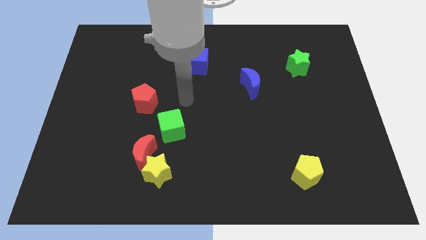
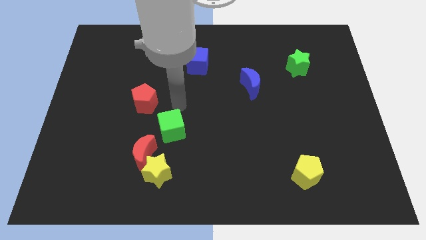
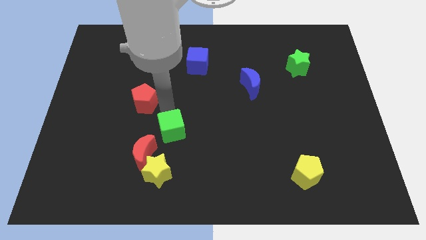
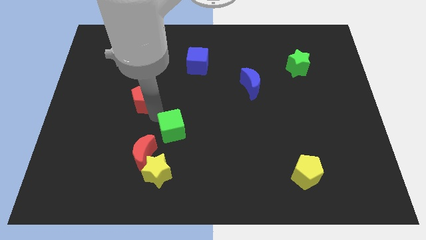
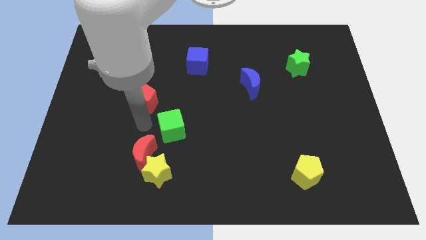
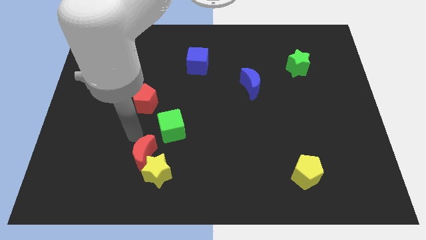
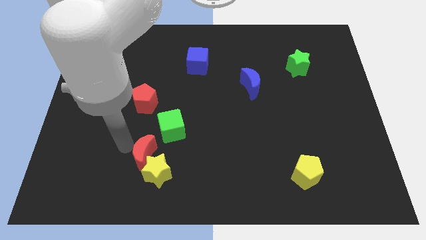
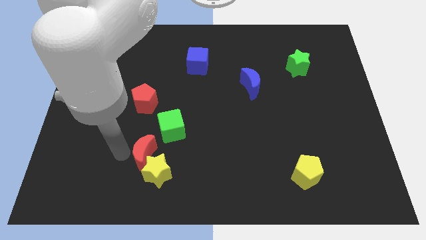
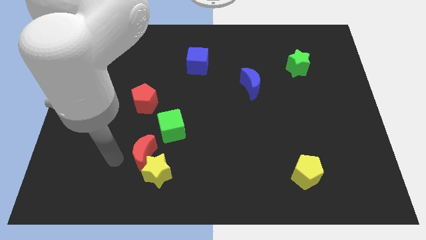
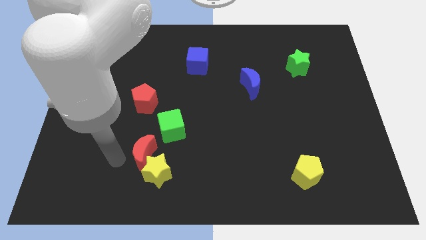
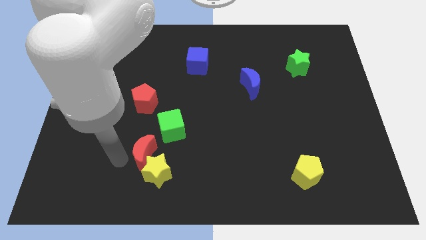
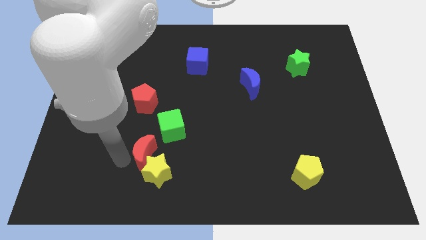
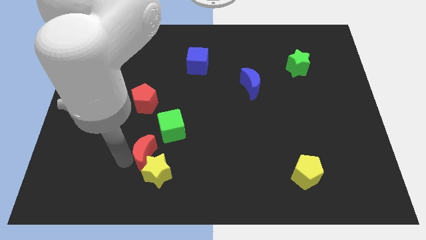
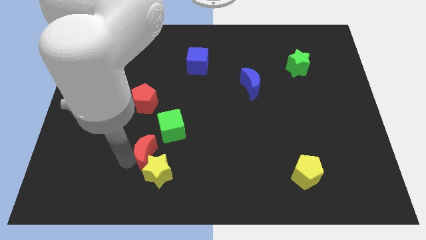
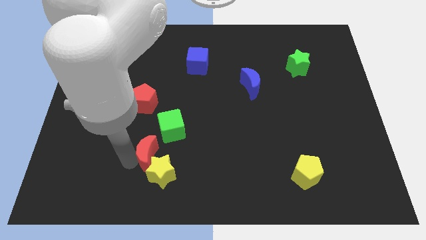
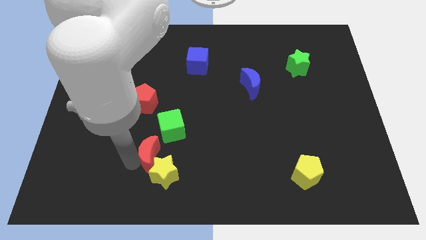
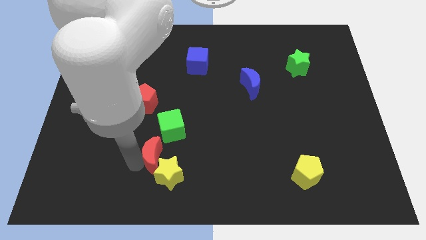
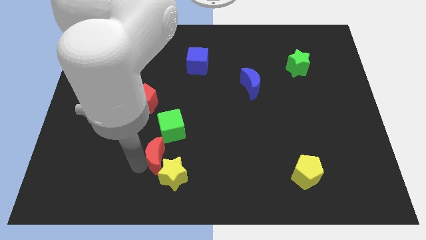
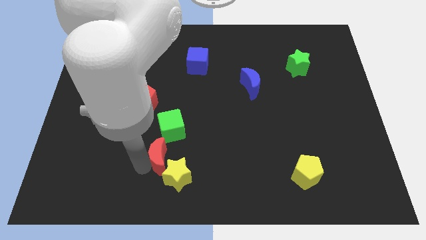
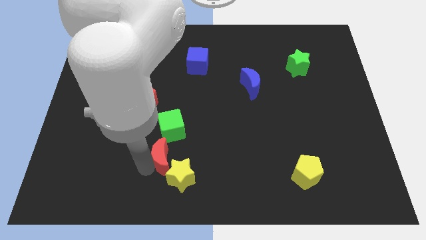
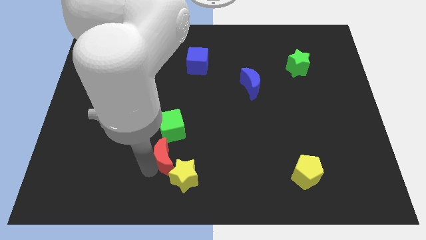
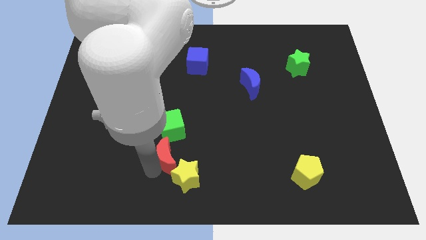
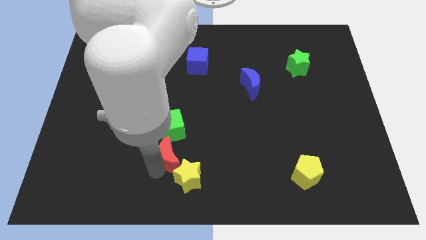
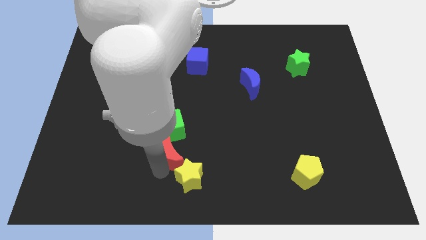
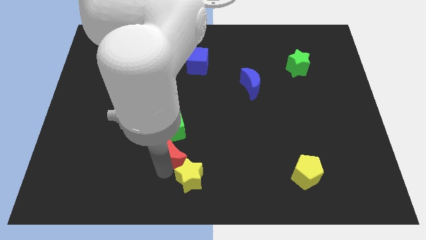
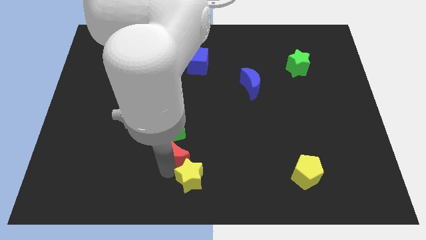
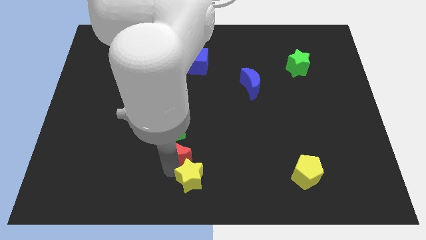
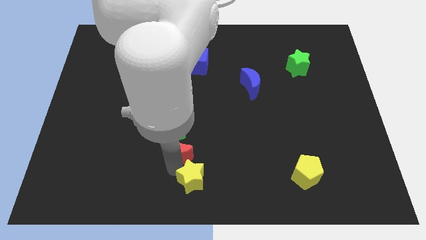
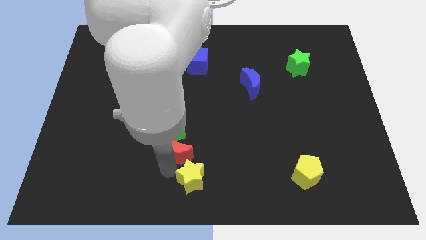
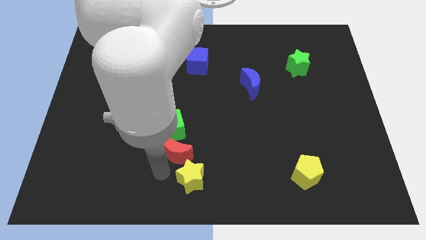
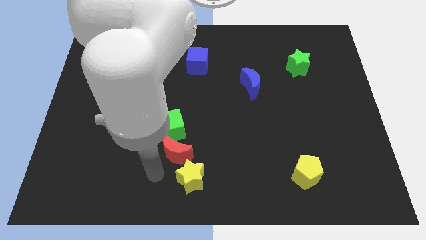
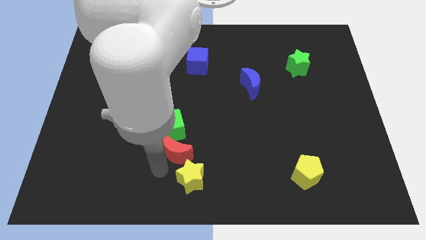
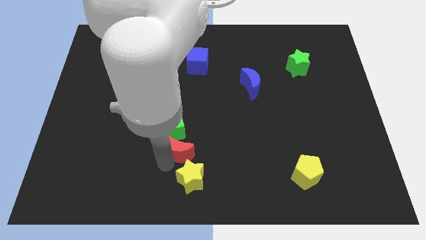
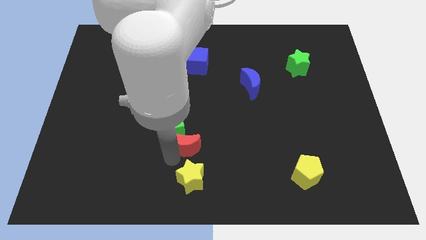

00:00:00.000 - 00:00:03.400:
slide the red moon up and right diagonally somewhat

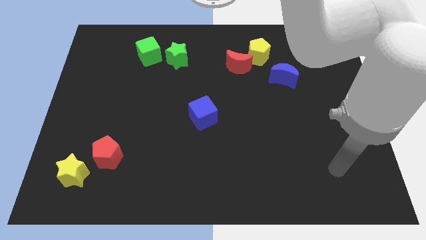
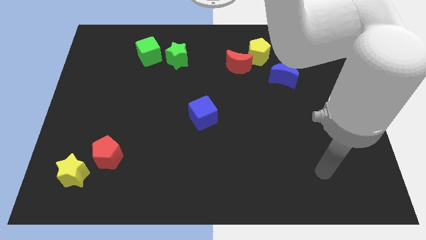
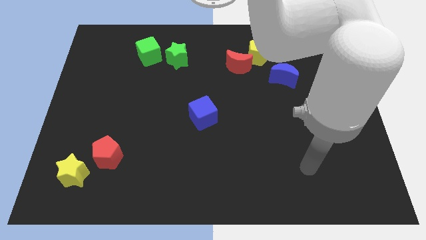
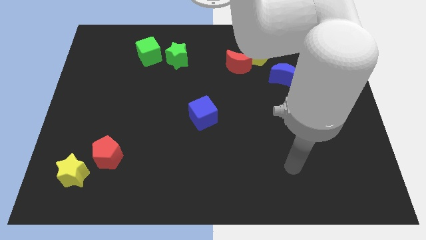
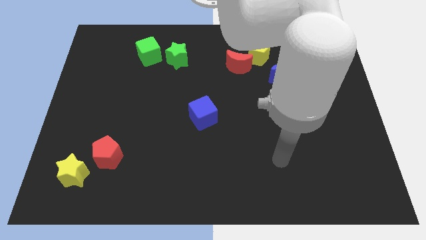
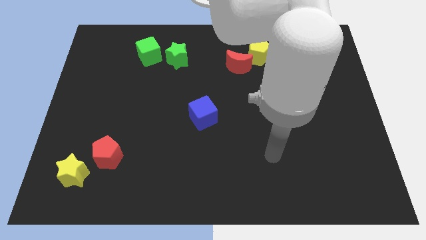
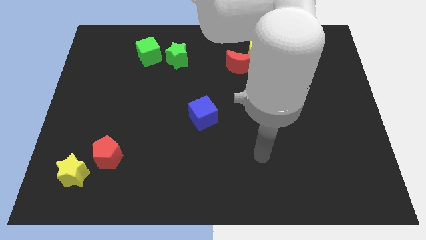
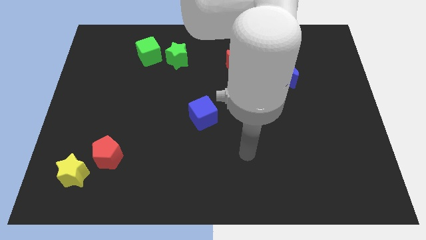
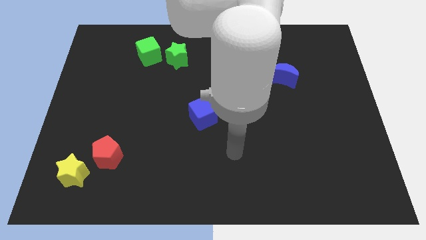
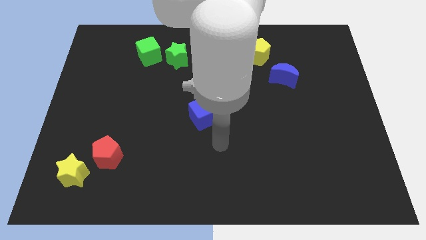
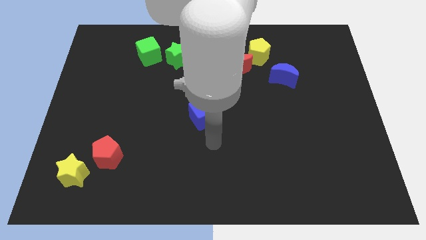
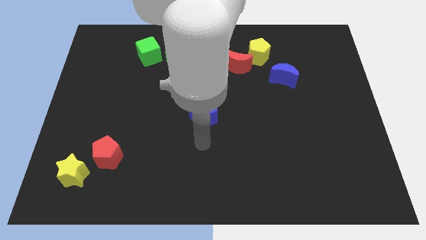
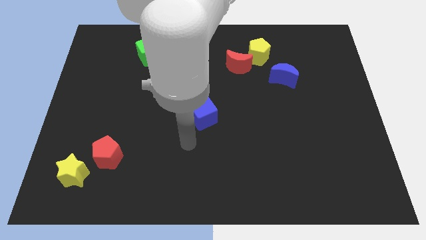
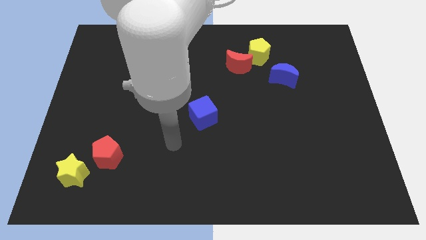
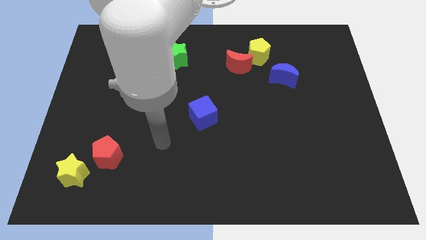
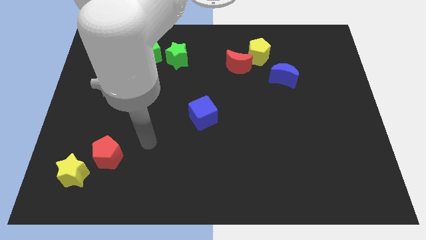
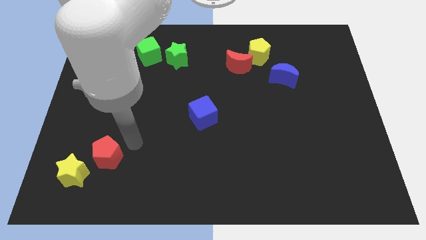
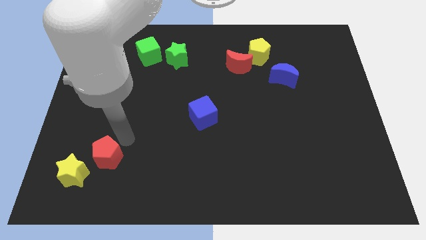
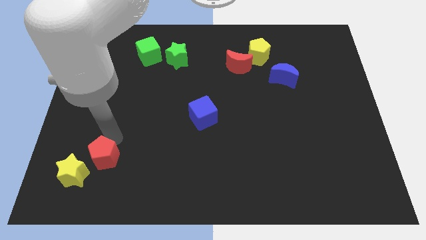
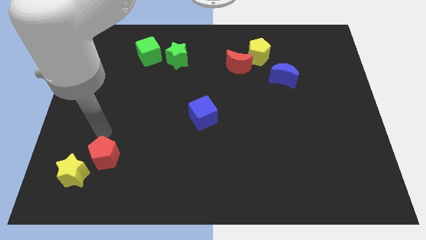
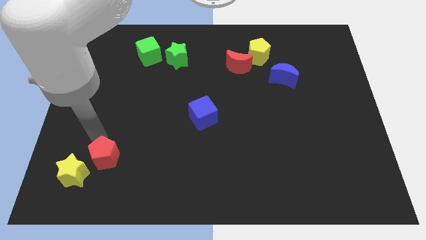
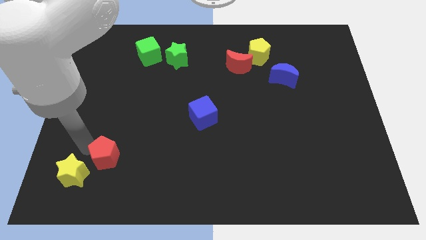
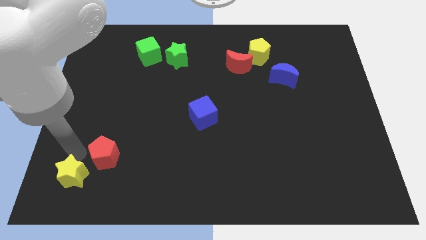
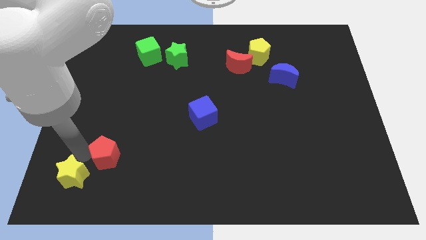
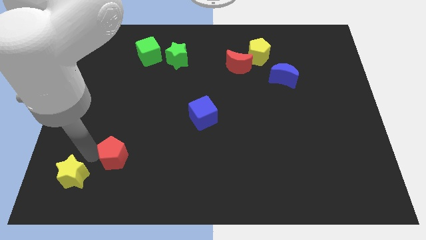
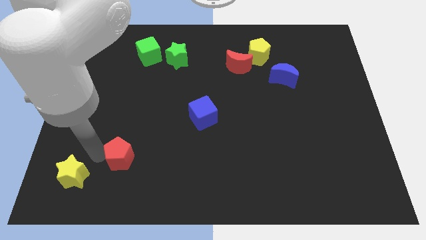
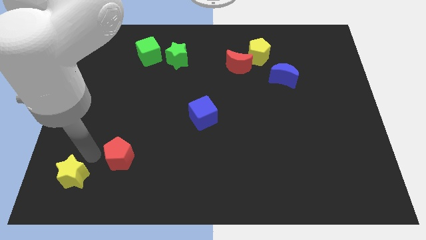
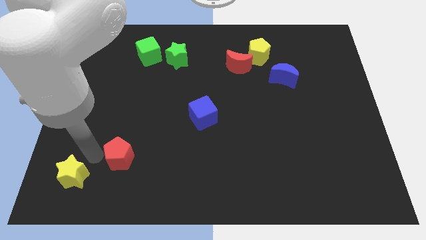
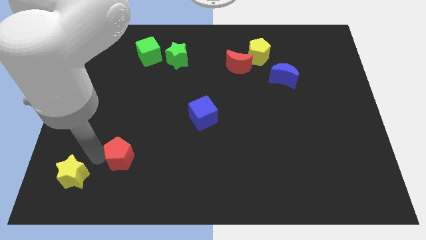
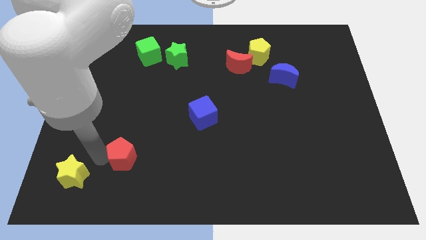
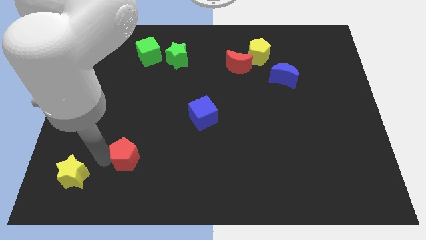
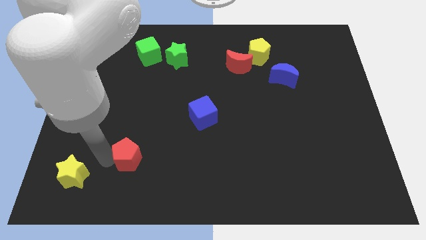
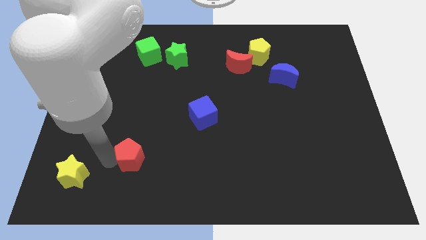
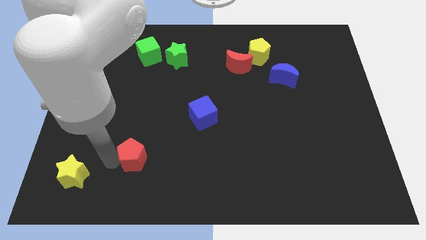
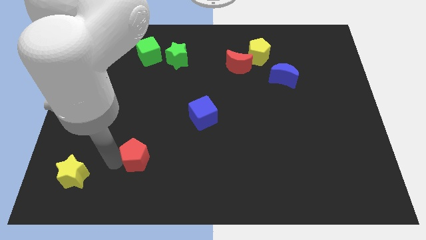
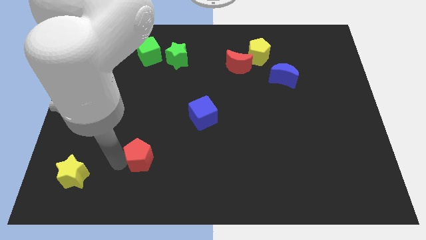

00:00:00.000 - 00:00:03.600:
slide the red pentagon to the right slightly

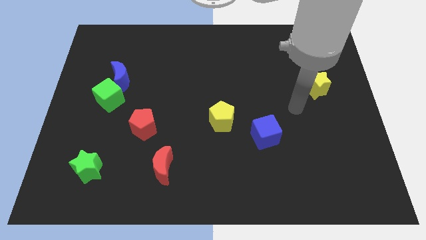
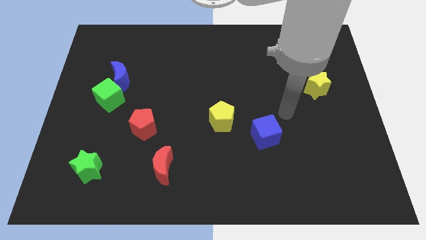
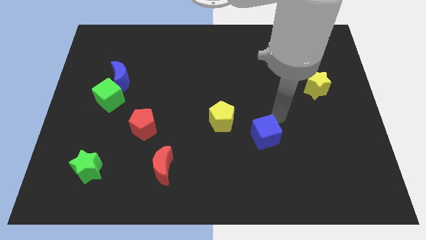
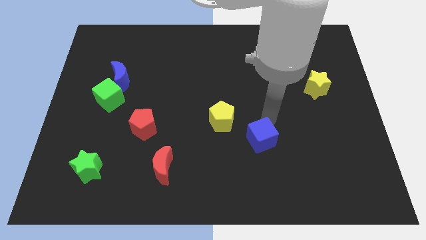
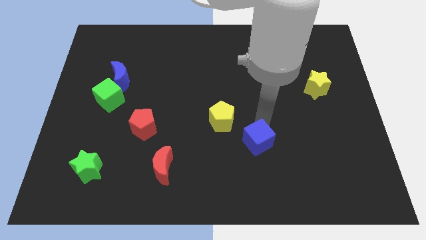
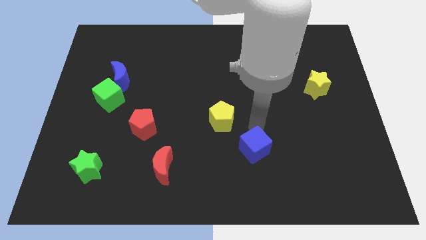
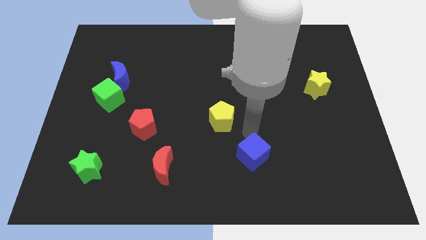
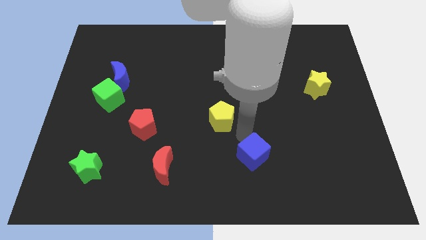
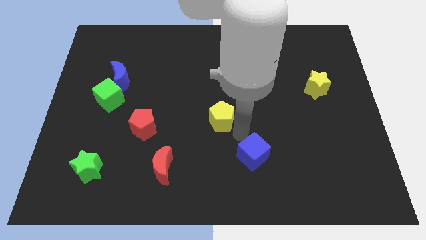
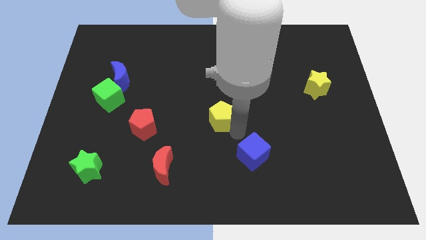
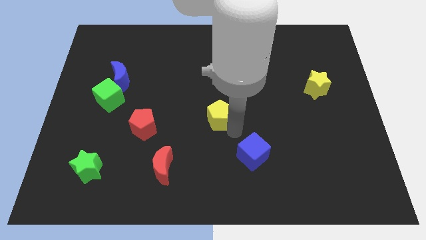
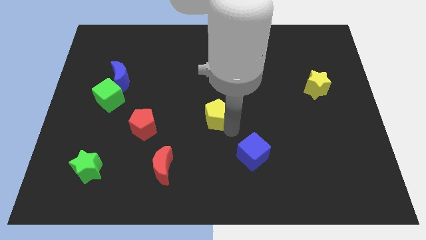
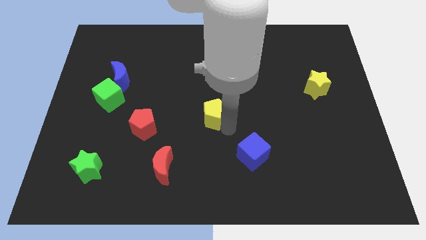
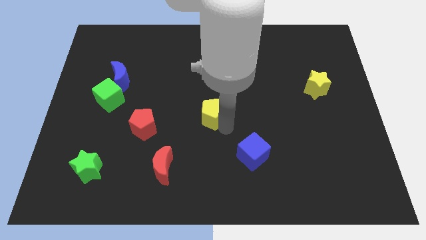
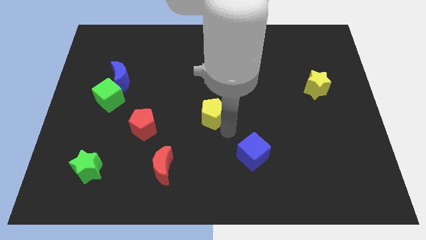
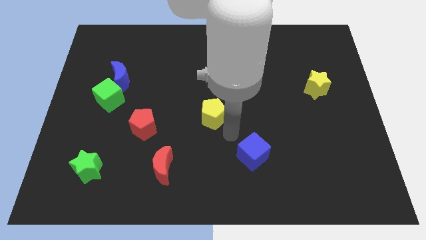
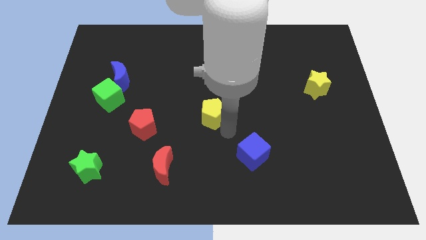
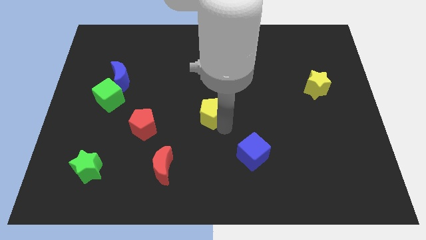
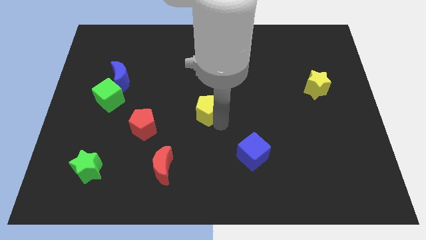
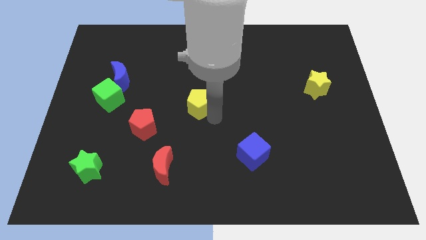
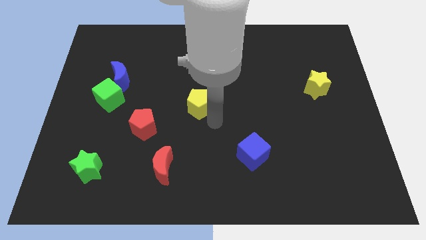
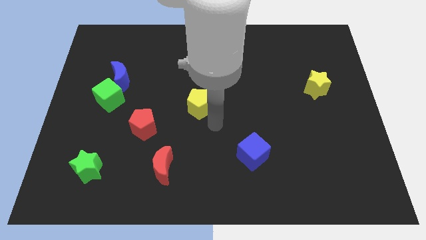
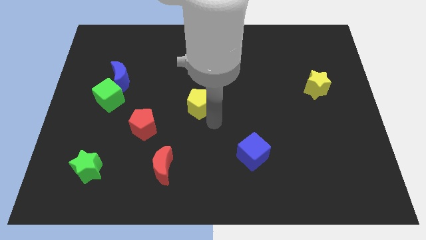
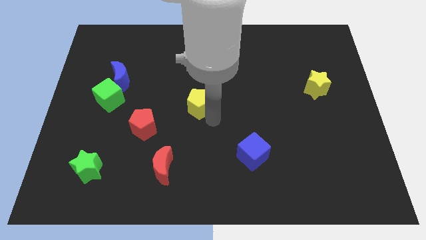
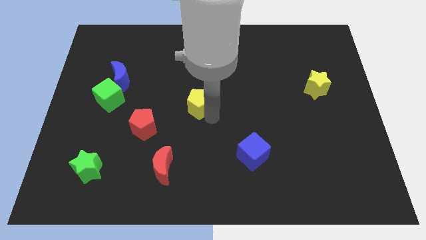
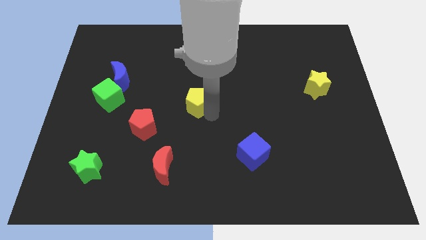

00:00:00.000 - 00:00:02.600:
slightly move the yellow pentagon upwards and then left
